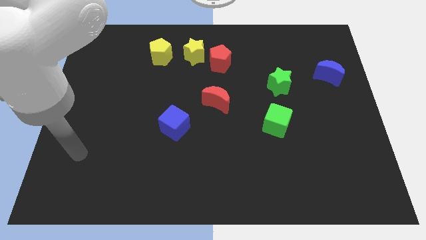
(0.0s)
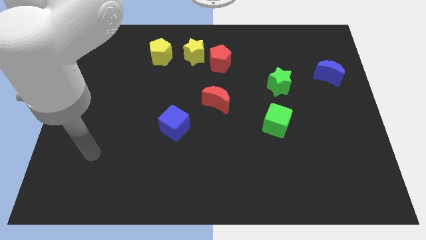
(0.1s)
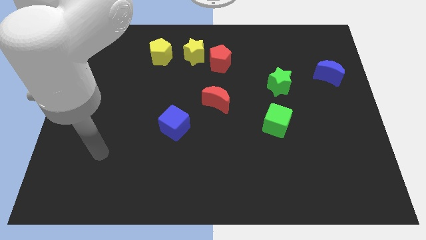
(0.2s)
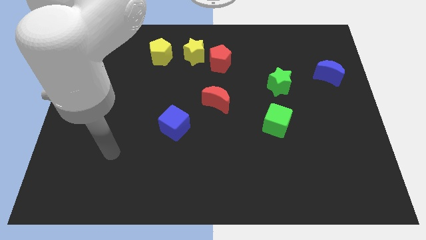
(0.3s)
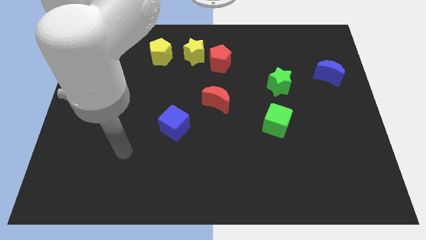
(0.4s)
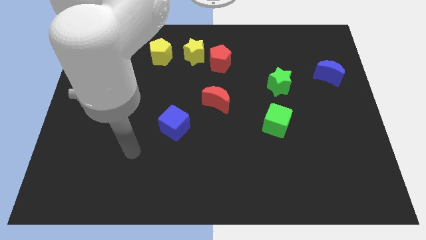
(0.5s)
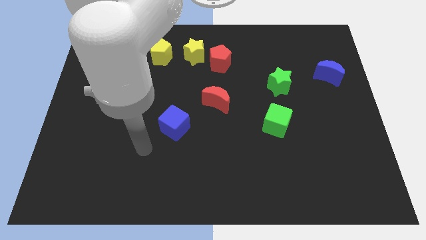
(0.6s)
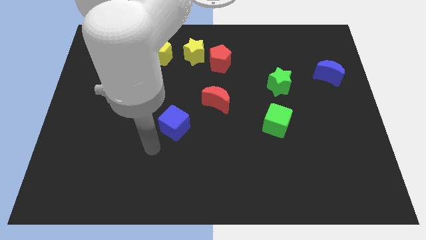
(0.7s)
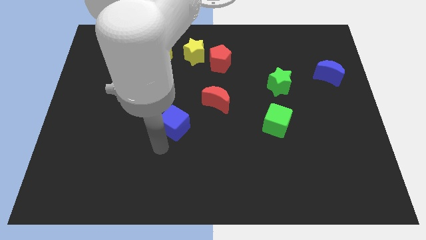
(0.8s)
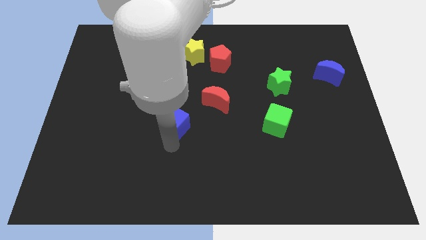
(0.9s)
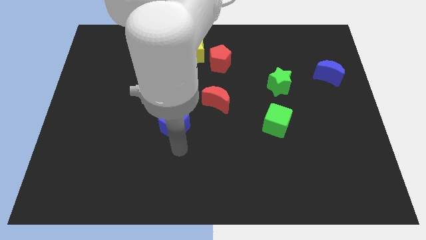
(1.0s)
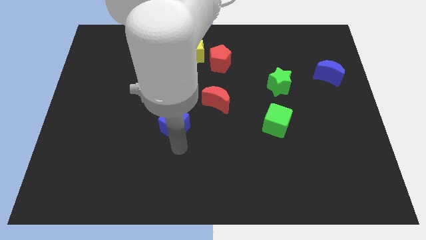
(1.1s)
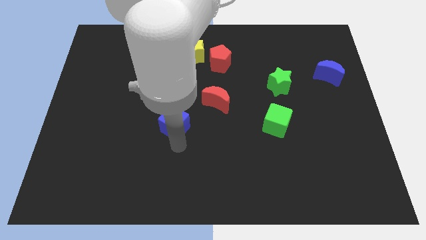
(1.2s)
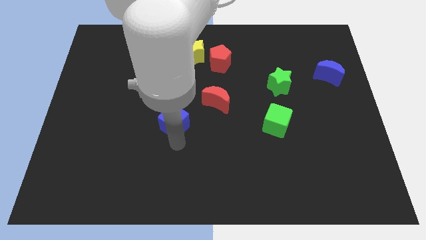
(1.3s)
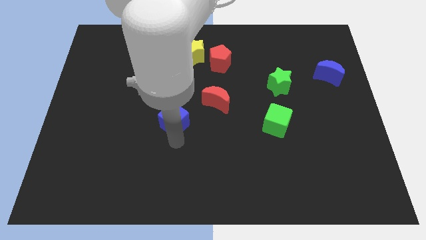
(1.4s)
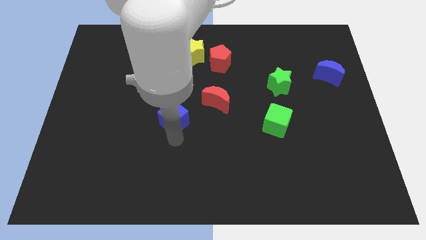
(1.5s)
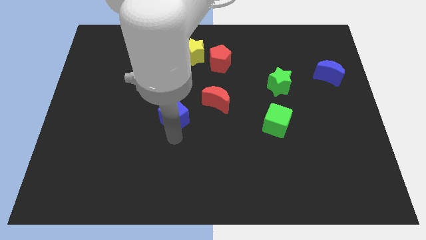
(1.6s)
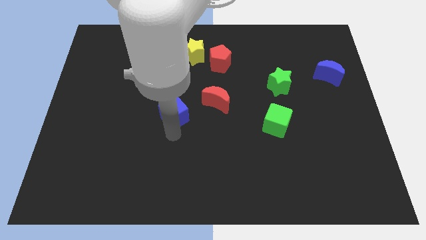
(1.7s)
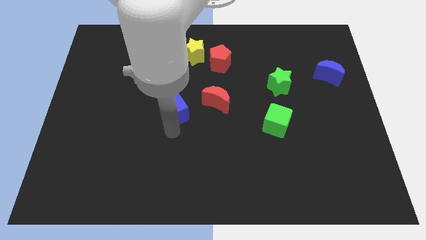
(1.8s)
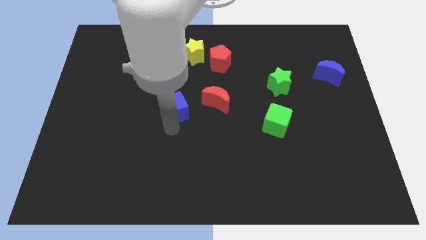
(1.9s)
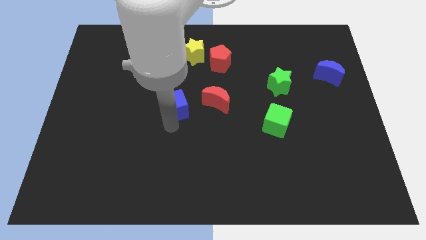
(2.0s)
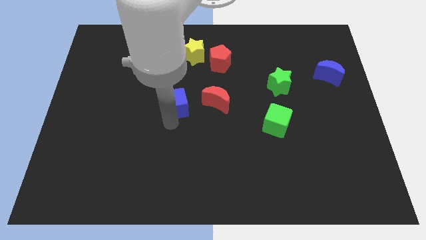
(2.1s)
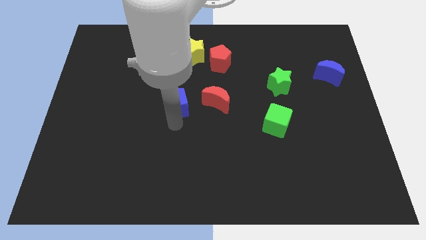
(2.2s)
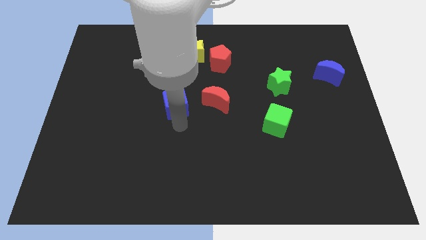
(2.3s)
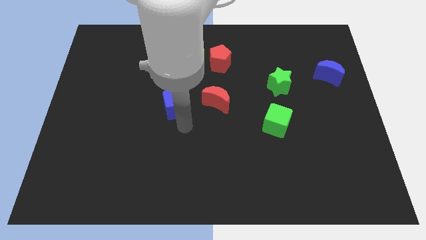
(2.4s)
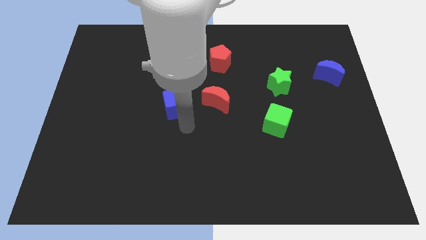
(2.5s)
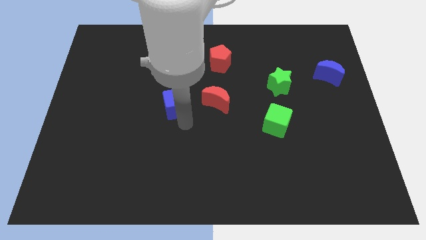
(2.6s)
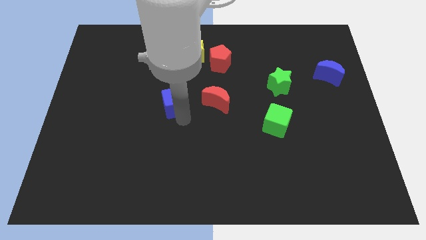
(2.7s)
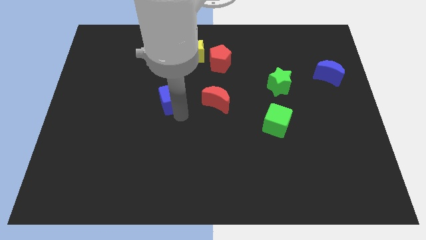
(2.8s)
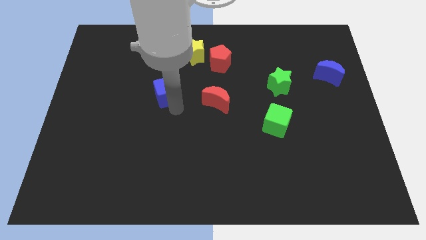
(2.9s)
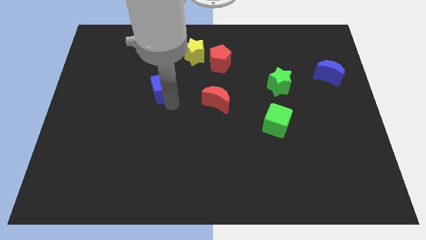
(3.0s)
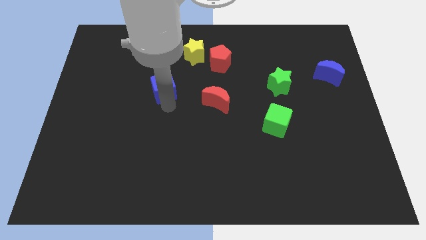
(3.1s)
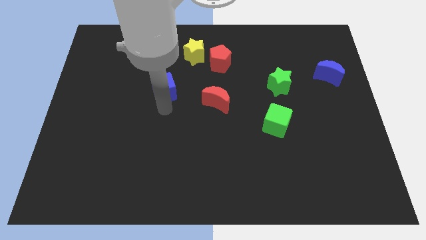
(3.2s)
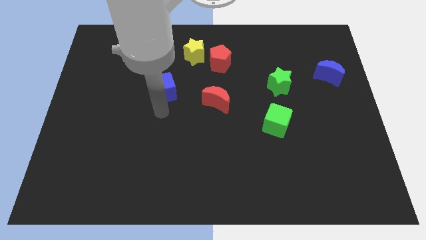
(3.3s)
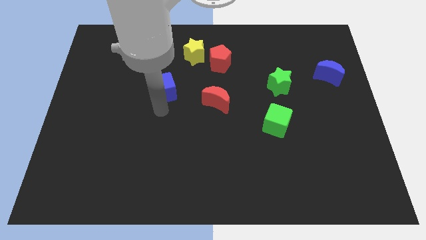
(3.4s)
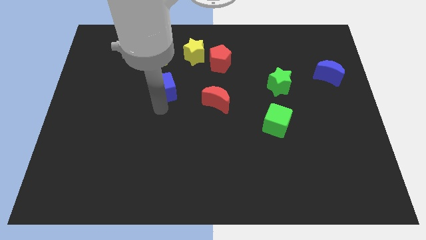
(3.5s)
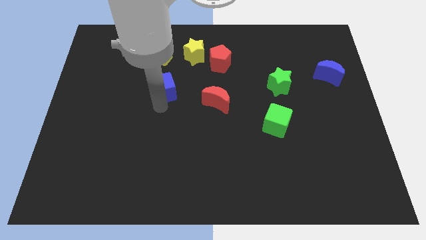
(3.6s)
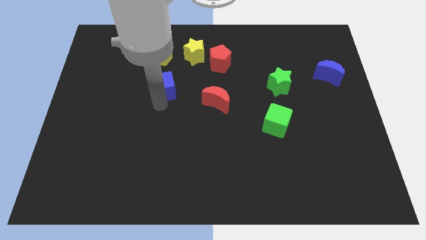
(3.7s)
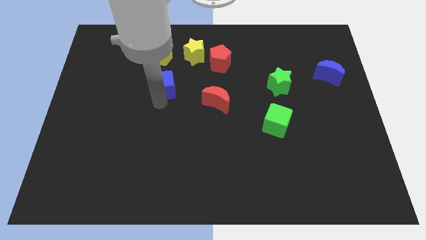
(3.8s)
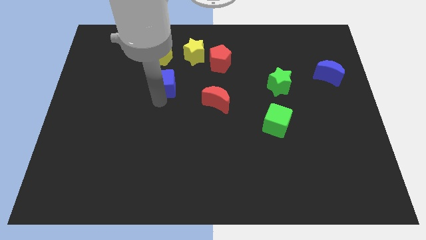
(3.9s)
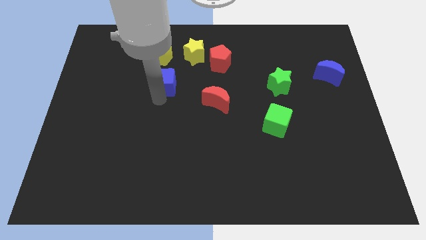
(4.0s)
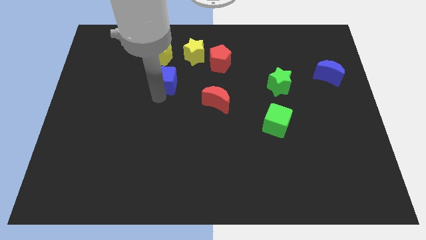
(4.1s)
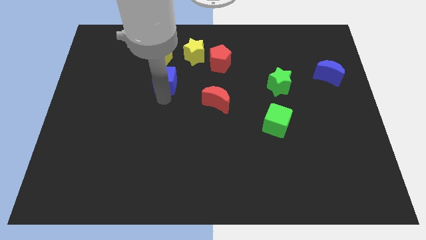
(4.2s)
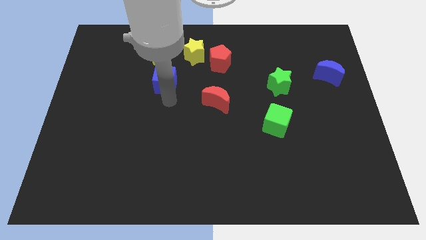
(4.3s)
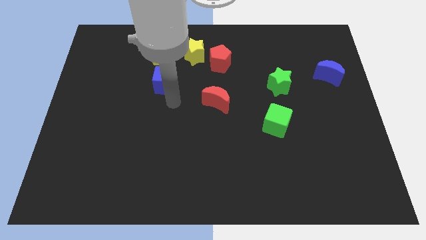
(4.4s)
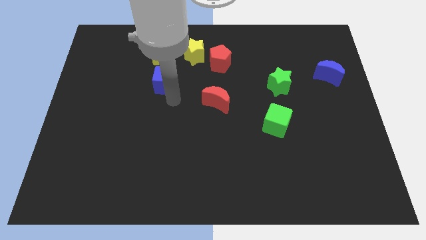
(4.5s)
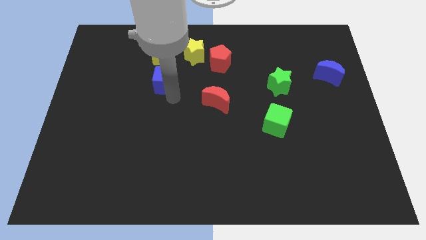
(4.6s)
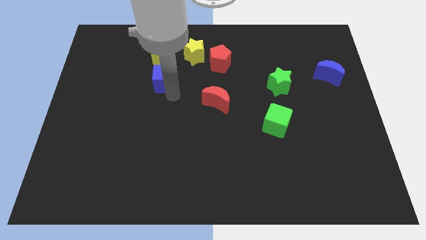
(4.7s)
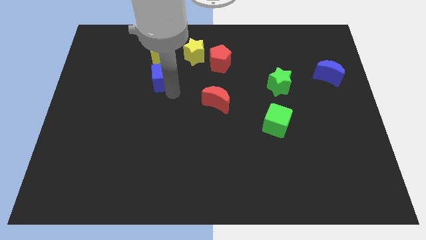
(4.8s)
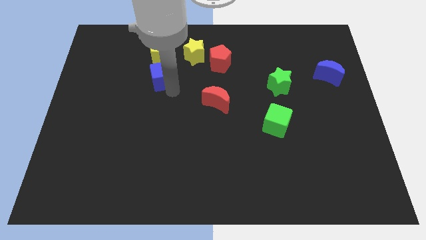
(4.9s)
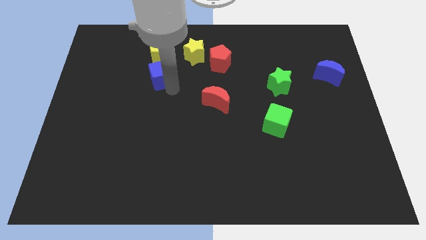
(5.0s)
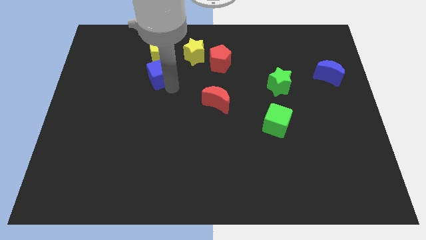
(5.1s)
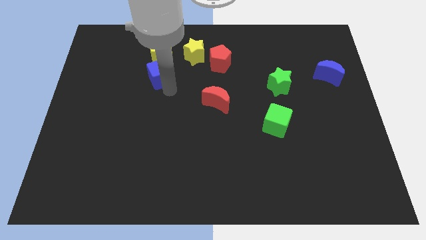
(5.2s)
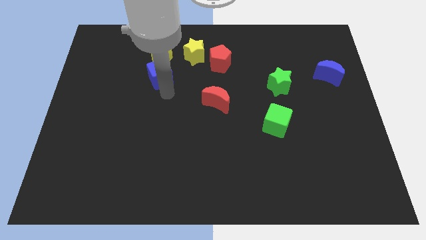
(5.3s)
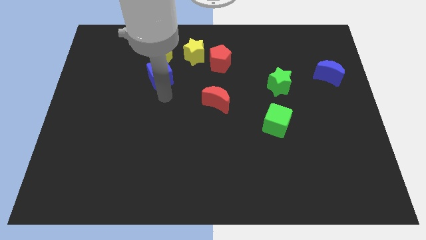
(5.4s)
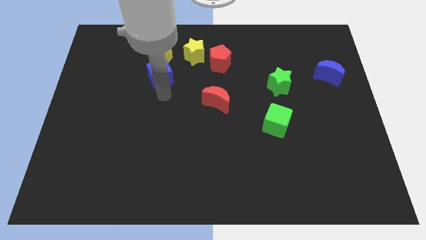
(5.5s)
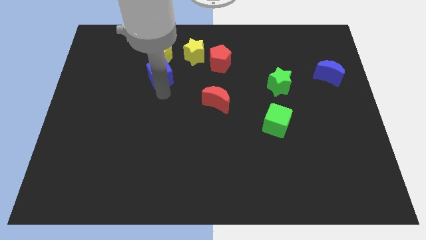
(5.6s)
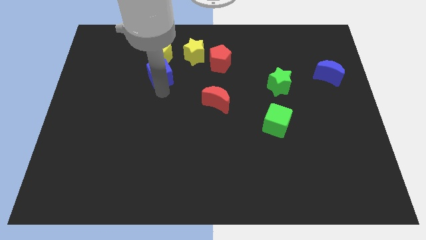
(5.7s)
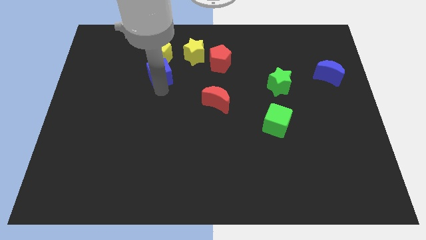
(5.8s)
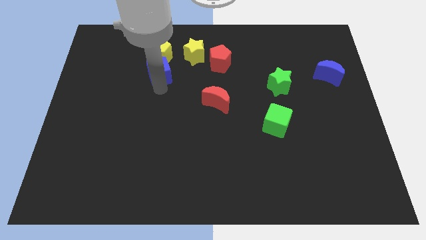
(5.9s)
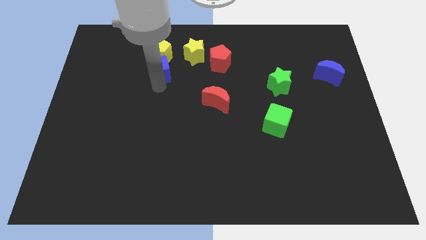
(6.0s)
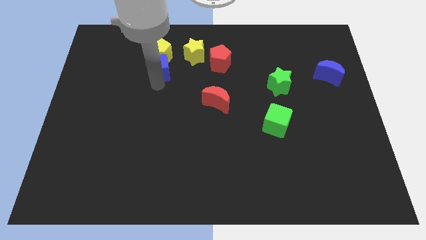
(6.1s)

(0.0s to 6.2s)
move the blue cube towards the yellow pentagon

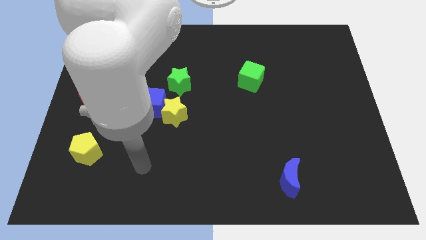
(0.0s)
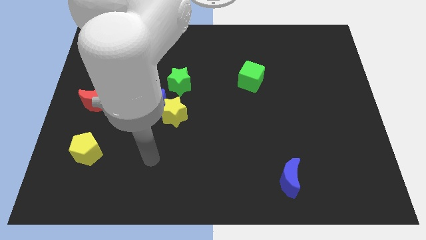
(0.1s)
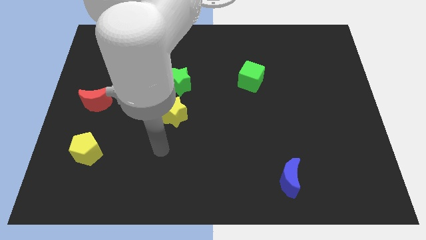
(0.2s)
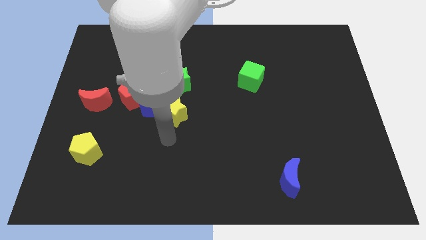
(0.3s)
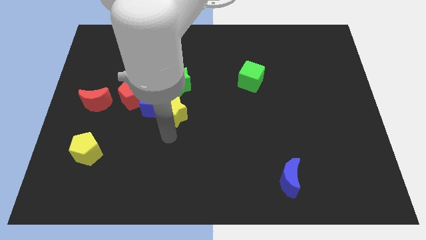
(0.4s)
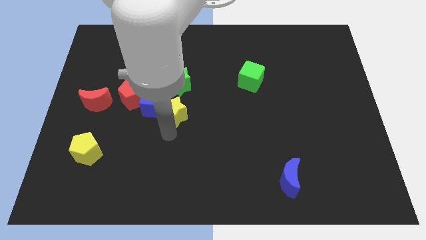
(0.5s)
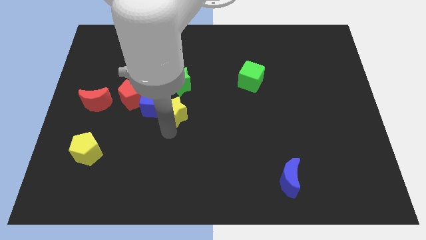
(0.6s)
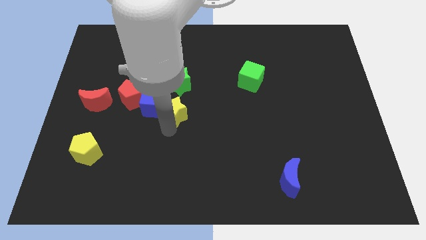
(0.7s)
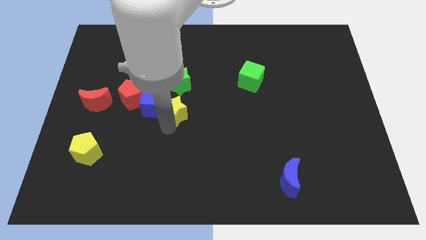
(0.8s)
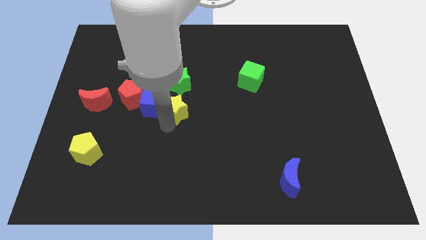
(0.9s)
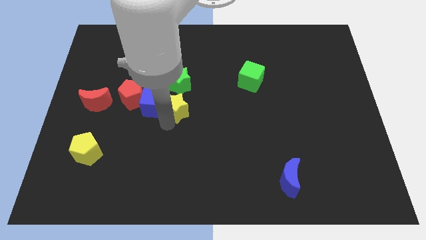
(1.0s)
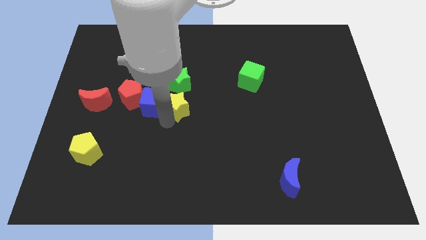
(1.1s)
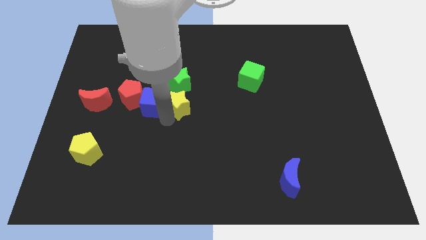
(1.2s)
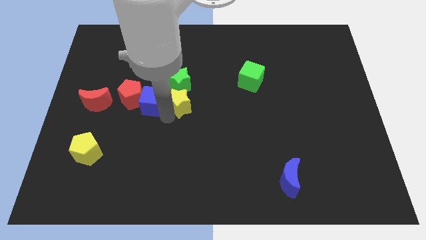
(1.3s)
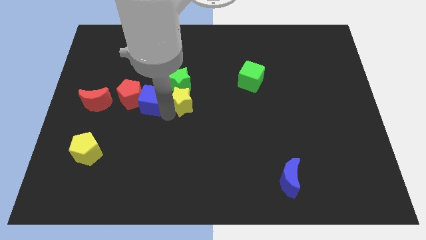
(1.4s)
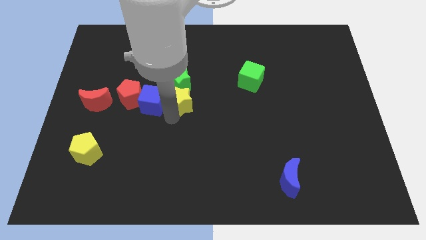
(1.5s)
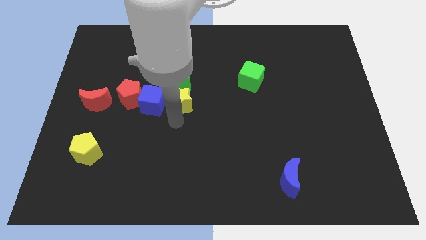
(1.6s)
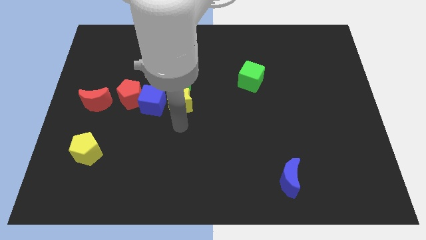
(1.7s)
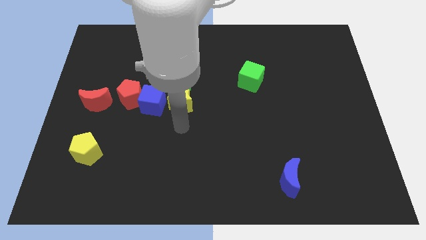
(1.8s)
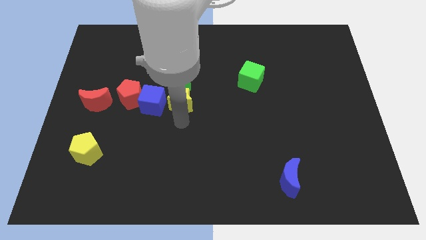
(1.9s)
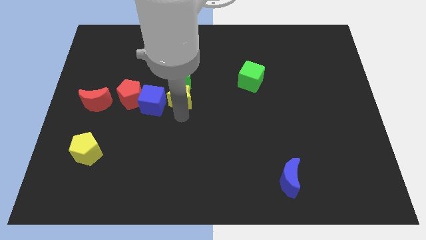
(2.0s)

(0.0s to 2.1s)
push the yellow star to the green star
